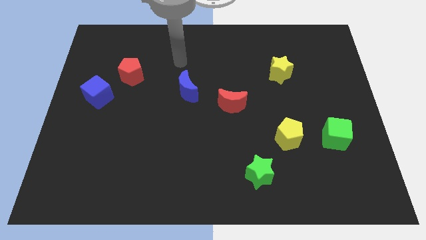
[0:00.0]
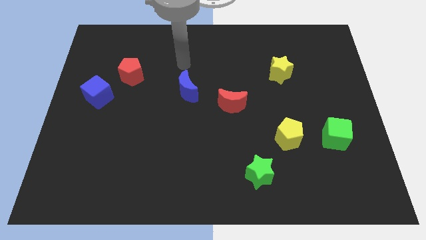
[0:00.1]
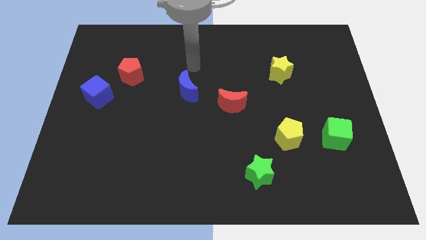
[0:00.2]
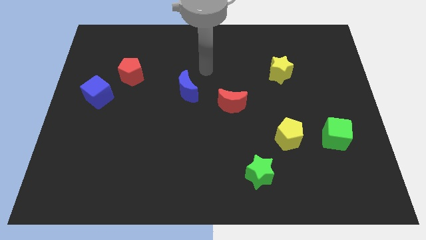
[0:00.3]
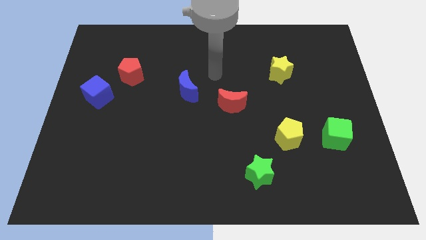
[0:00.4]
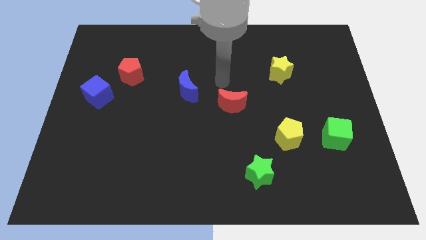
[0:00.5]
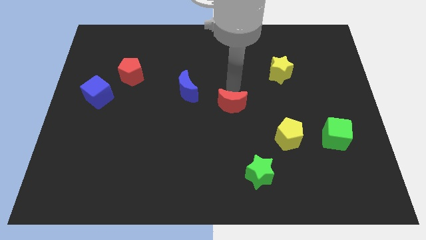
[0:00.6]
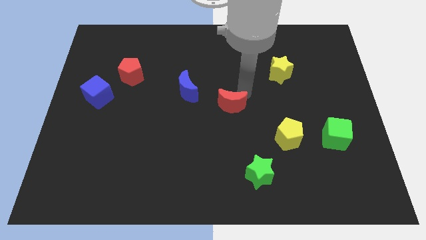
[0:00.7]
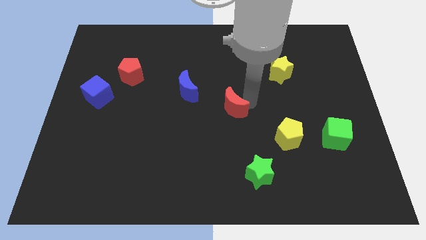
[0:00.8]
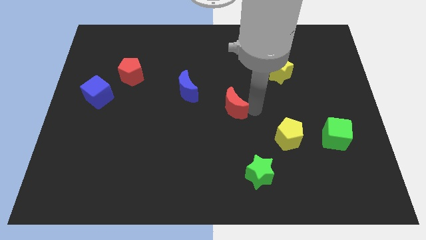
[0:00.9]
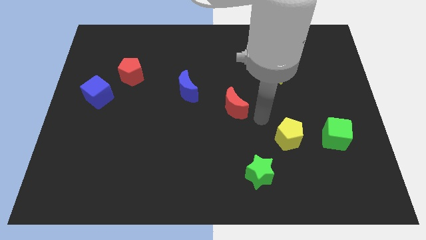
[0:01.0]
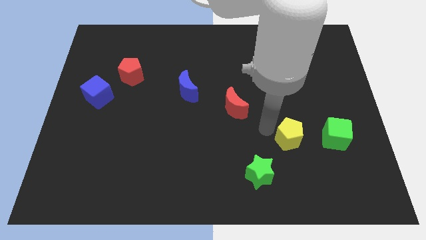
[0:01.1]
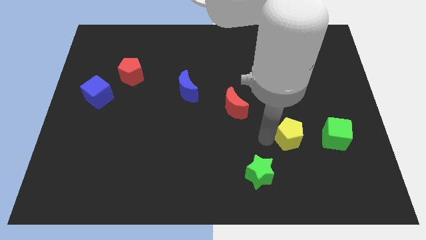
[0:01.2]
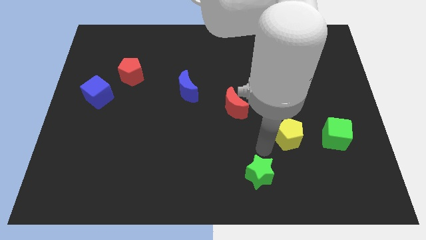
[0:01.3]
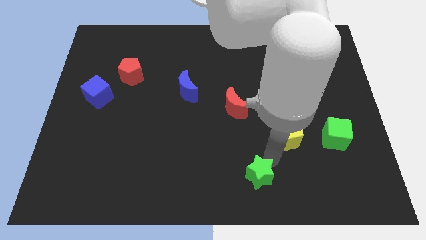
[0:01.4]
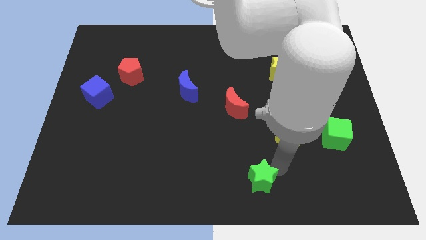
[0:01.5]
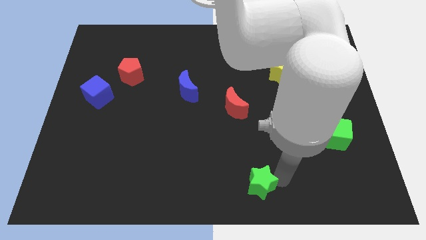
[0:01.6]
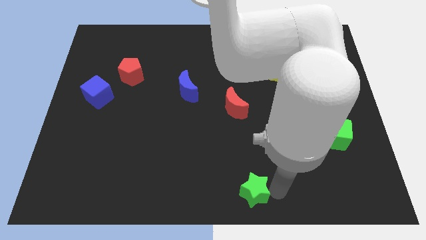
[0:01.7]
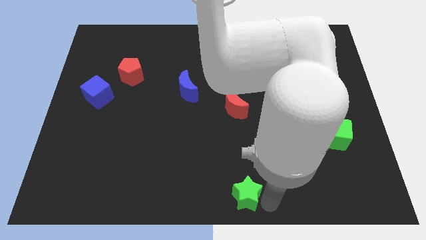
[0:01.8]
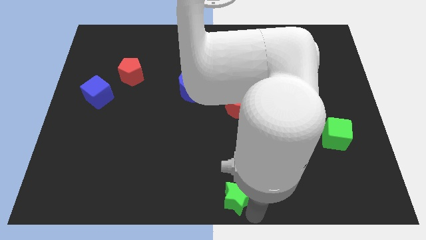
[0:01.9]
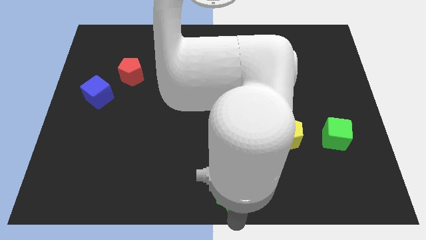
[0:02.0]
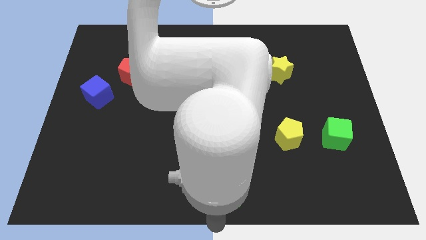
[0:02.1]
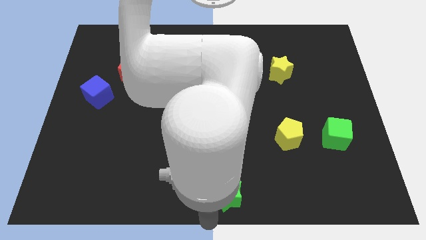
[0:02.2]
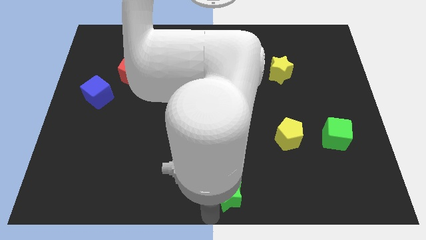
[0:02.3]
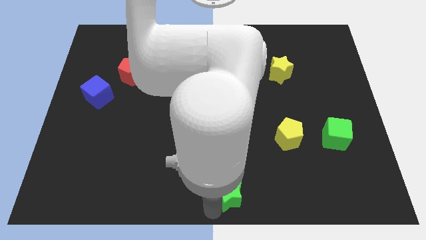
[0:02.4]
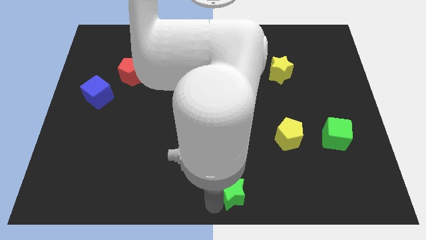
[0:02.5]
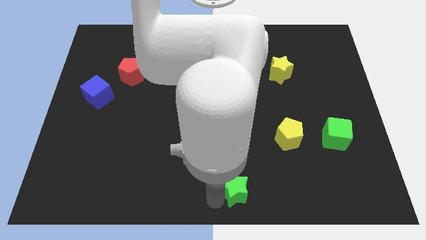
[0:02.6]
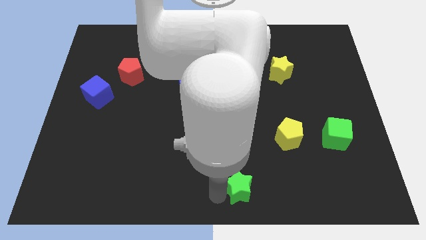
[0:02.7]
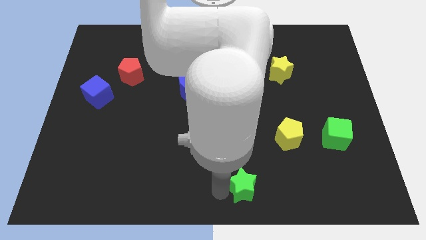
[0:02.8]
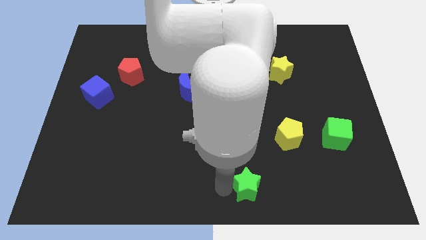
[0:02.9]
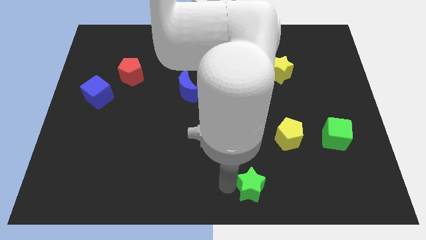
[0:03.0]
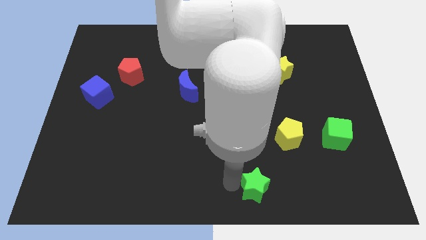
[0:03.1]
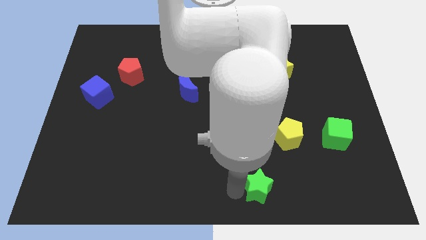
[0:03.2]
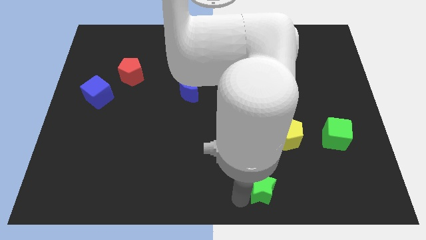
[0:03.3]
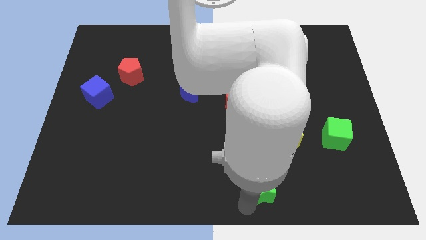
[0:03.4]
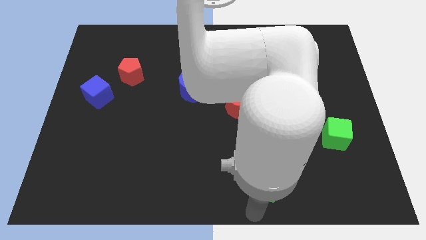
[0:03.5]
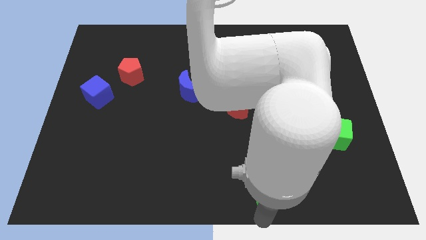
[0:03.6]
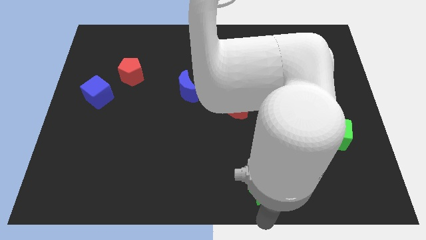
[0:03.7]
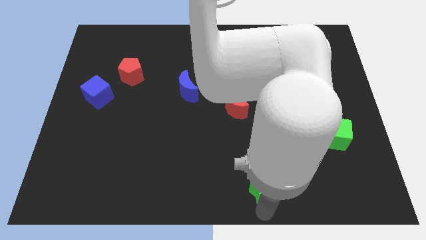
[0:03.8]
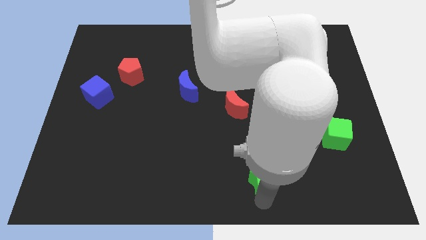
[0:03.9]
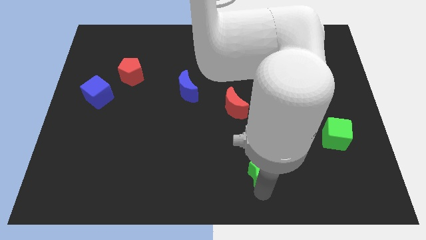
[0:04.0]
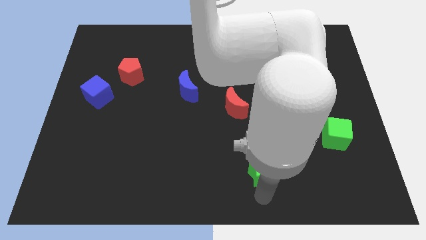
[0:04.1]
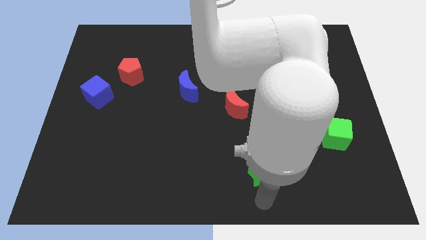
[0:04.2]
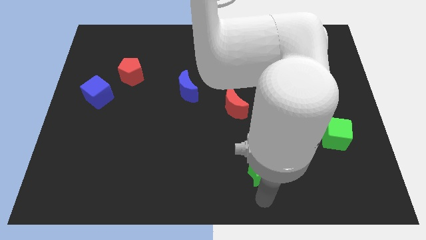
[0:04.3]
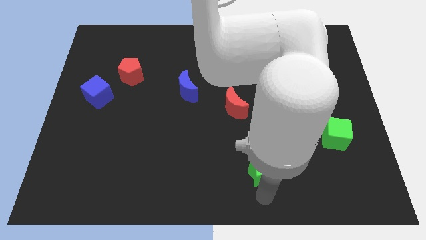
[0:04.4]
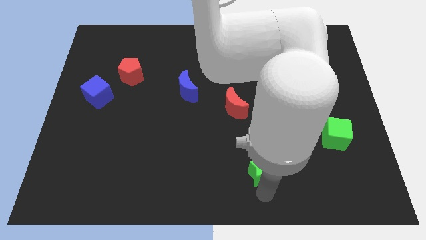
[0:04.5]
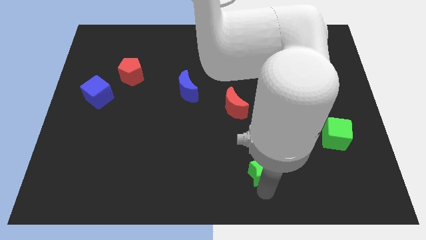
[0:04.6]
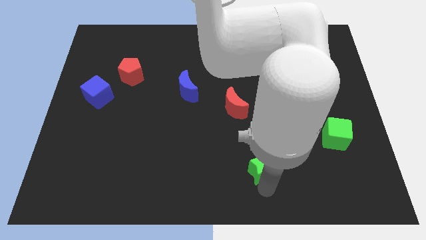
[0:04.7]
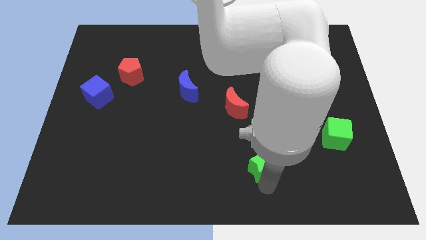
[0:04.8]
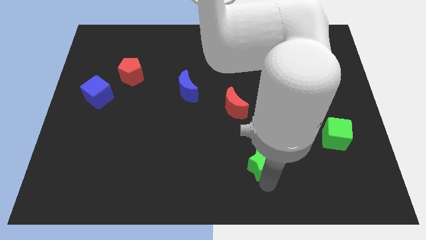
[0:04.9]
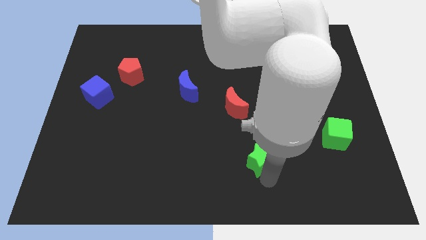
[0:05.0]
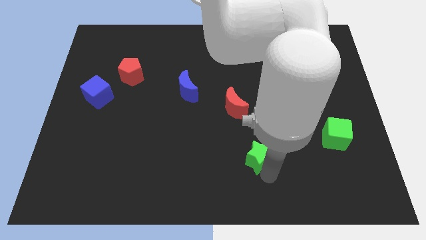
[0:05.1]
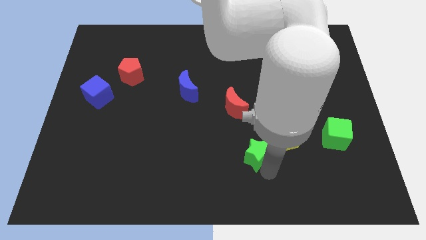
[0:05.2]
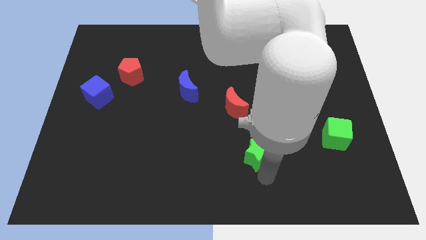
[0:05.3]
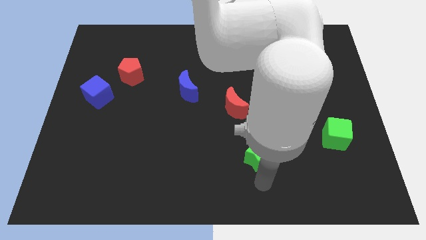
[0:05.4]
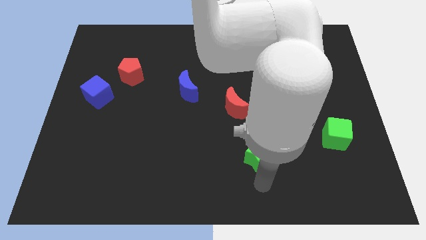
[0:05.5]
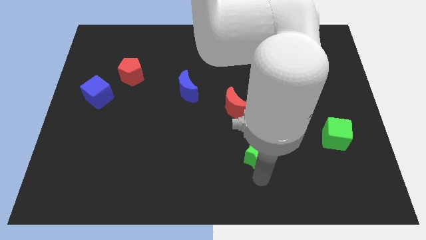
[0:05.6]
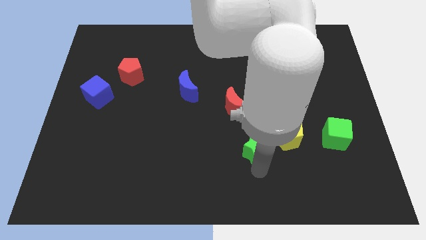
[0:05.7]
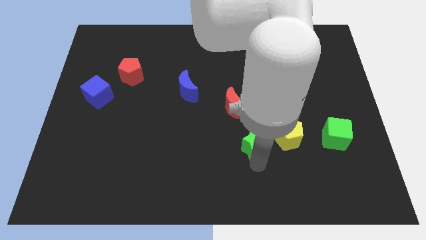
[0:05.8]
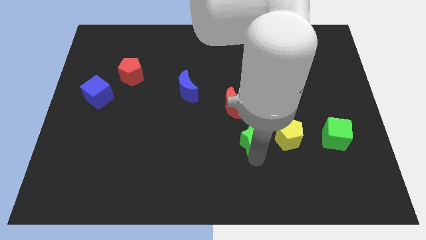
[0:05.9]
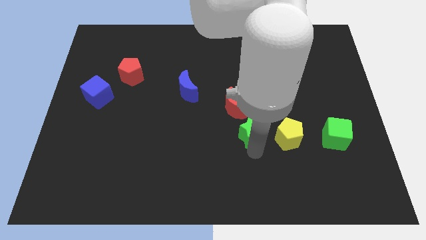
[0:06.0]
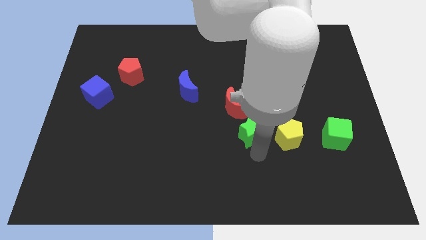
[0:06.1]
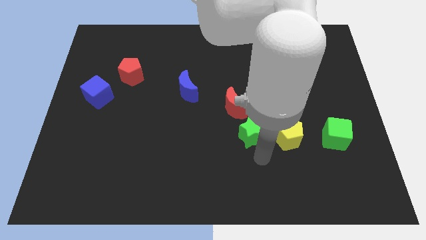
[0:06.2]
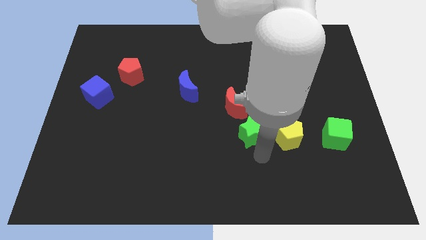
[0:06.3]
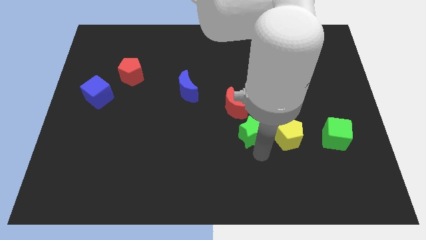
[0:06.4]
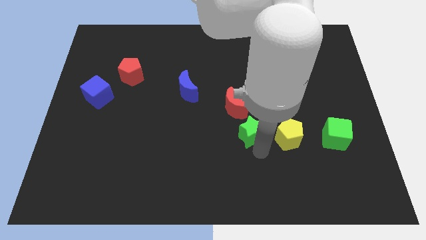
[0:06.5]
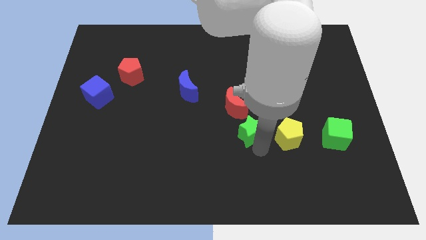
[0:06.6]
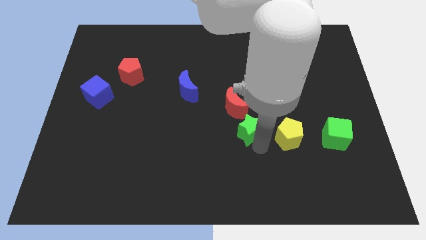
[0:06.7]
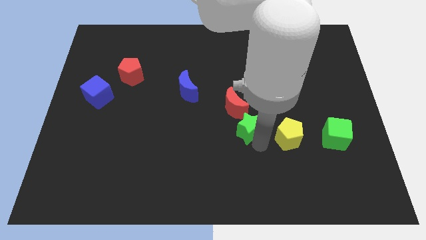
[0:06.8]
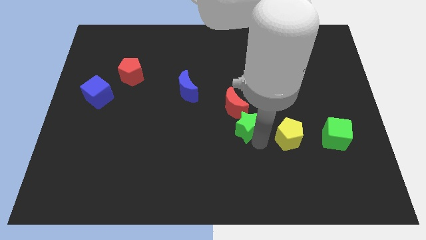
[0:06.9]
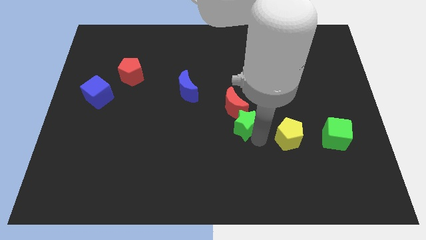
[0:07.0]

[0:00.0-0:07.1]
slide the green star next to the red moon
